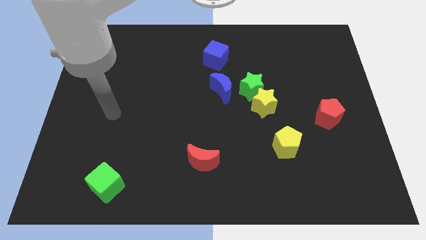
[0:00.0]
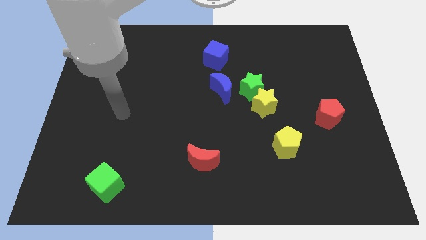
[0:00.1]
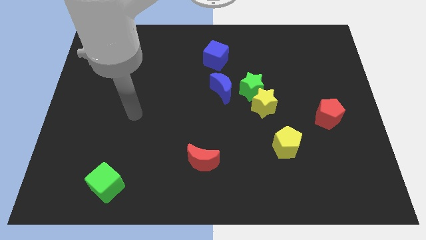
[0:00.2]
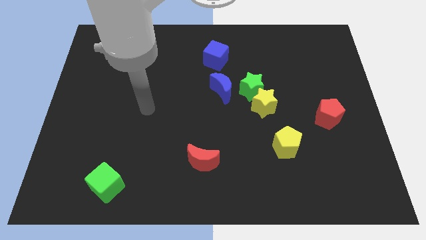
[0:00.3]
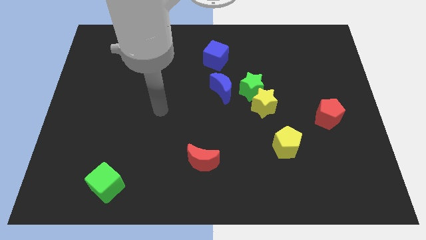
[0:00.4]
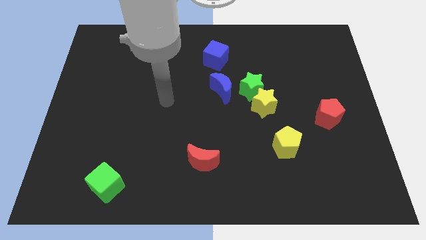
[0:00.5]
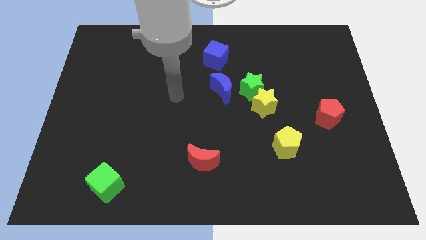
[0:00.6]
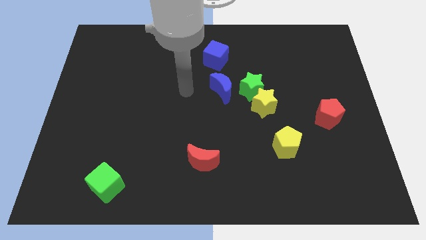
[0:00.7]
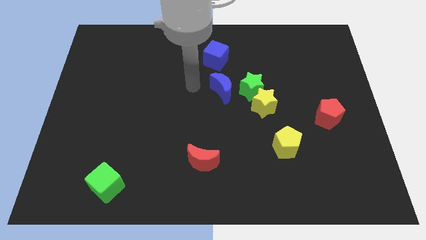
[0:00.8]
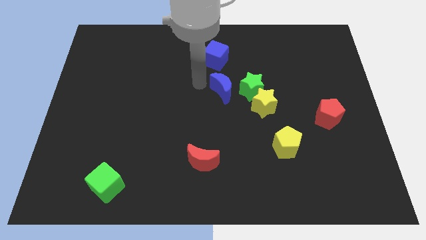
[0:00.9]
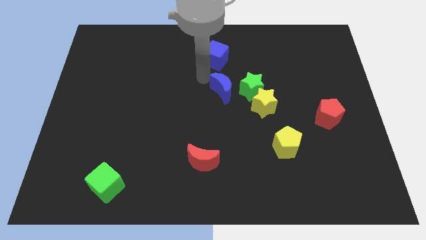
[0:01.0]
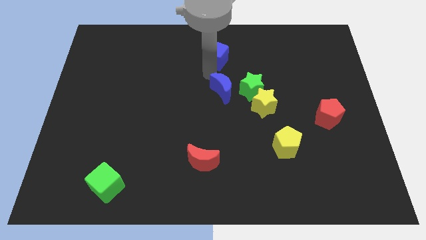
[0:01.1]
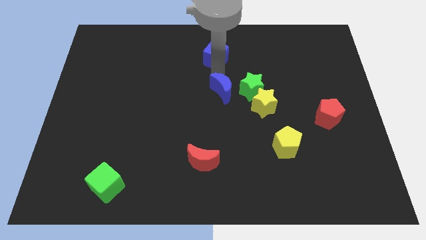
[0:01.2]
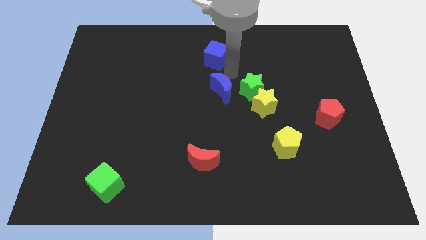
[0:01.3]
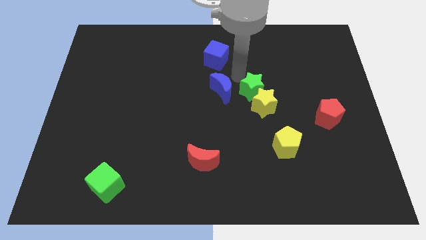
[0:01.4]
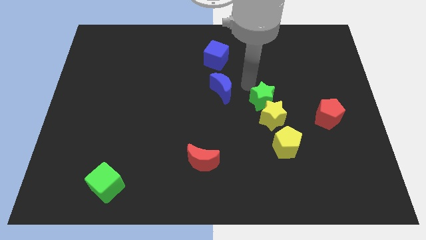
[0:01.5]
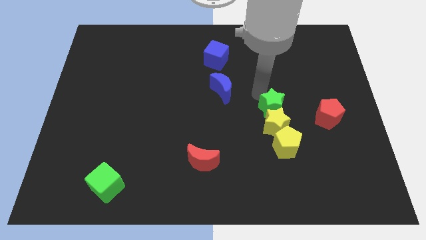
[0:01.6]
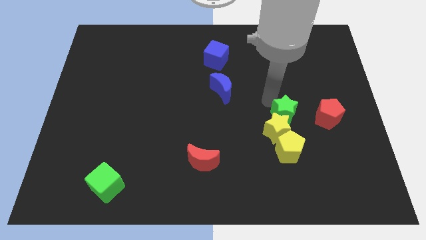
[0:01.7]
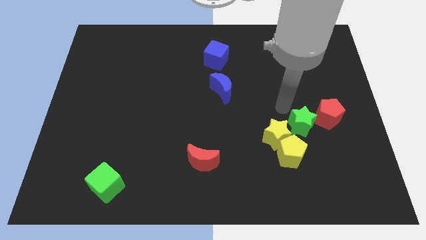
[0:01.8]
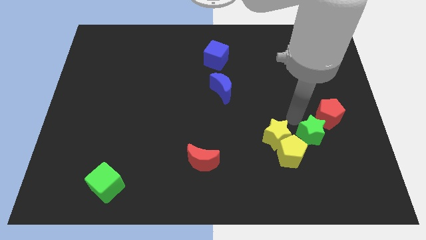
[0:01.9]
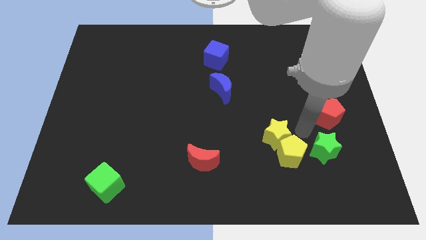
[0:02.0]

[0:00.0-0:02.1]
pull the yellow star apart from the green star

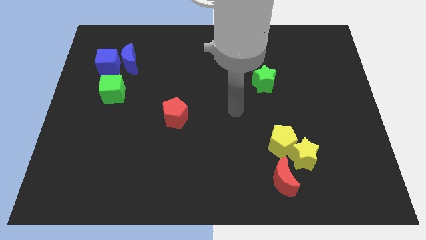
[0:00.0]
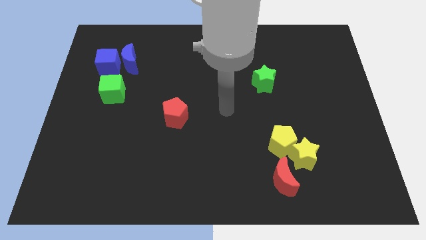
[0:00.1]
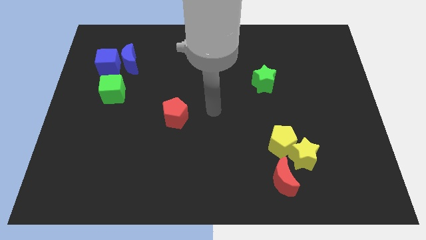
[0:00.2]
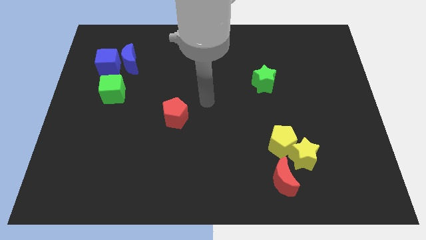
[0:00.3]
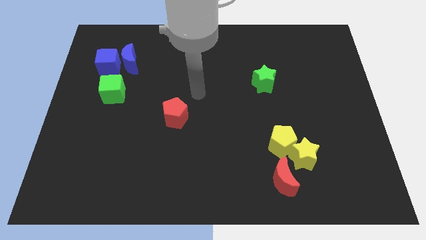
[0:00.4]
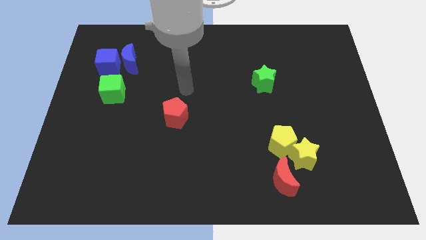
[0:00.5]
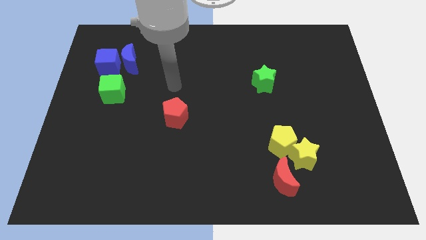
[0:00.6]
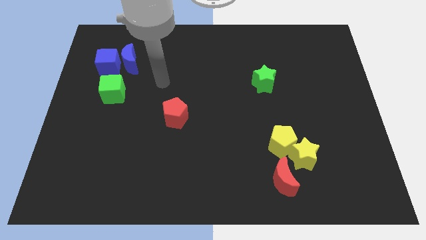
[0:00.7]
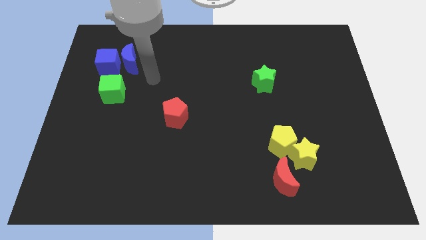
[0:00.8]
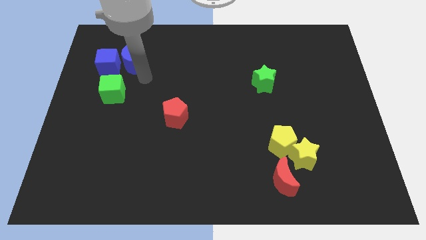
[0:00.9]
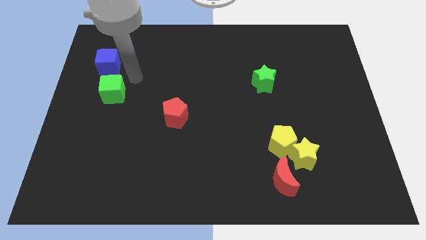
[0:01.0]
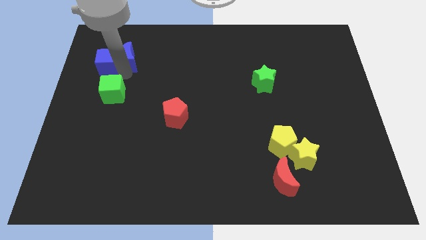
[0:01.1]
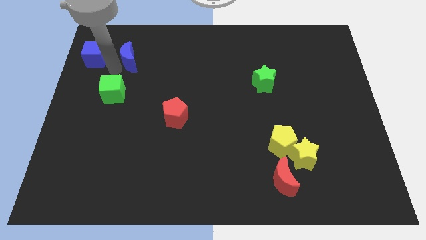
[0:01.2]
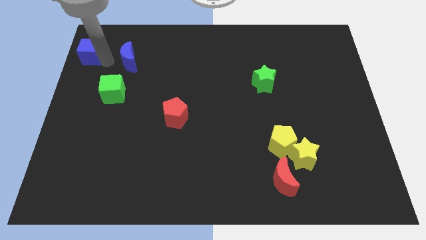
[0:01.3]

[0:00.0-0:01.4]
pull the blue moon apart from the blue cube

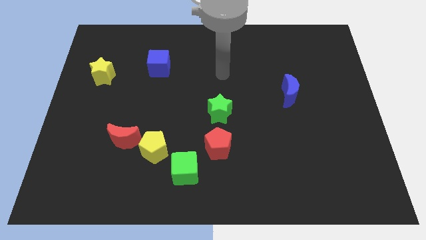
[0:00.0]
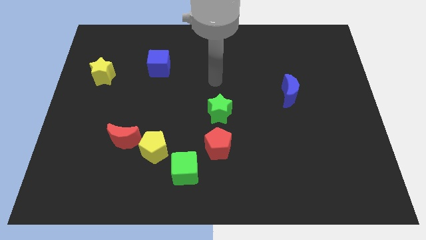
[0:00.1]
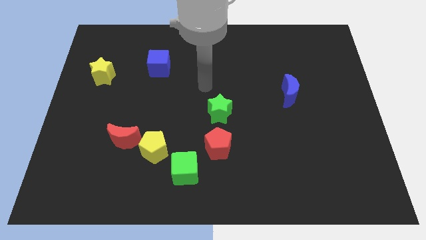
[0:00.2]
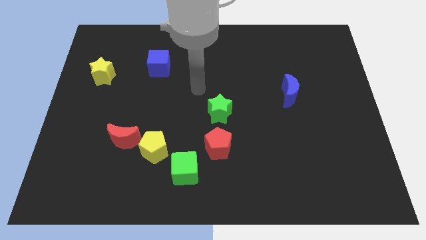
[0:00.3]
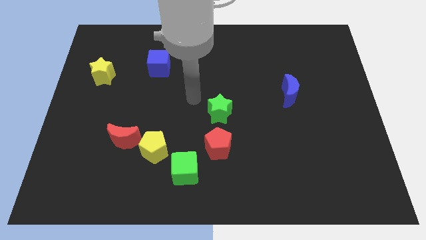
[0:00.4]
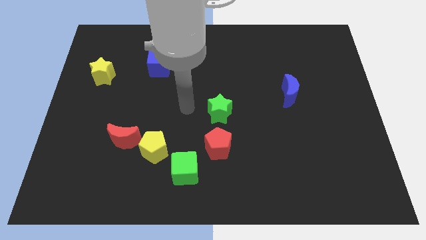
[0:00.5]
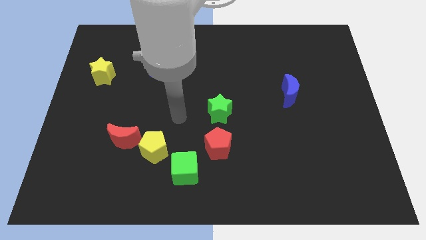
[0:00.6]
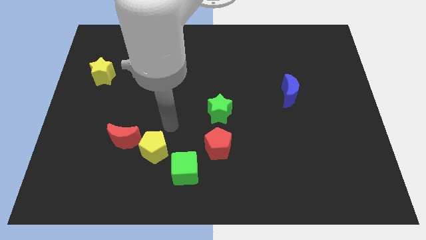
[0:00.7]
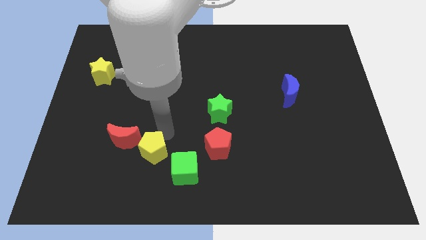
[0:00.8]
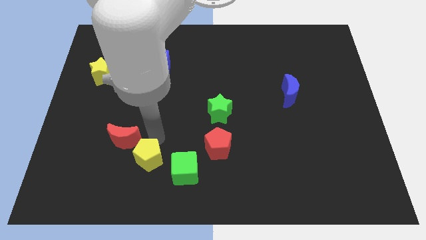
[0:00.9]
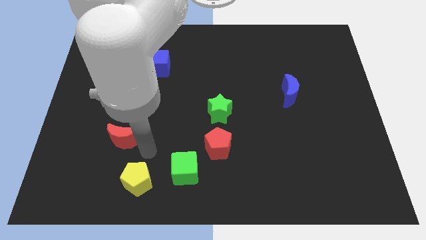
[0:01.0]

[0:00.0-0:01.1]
pull the red moon apart from the yellow pentagon

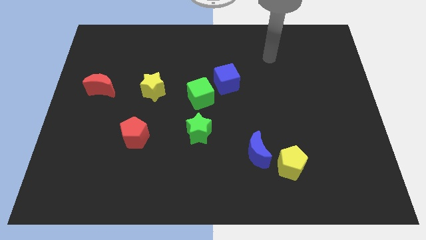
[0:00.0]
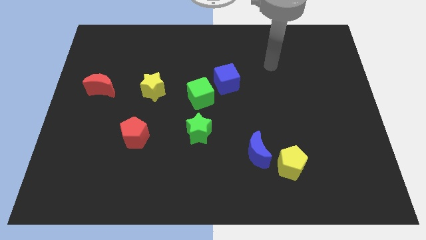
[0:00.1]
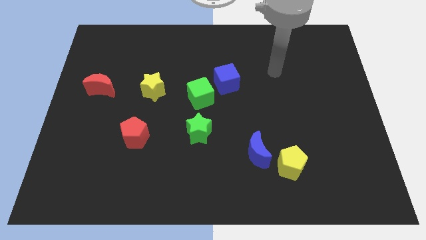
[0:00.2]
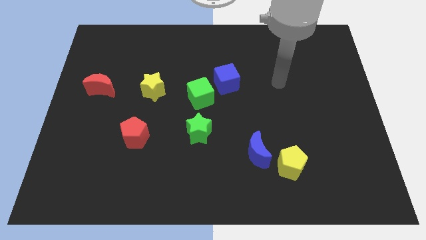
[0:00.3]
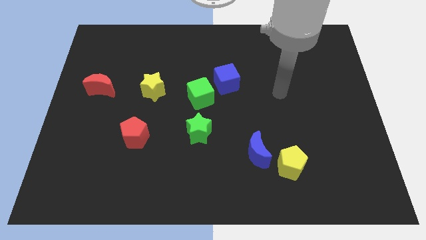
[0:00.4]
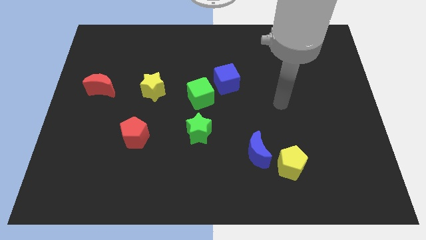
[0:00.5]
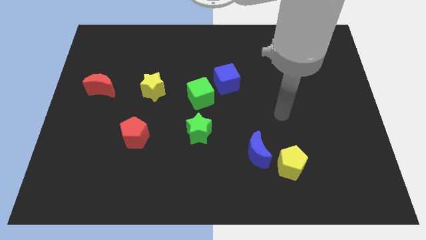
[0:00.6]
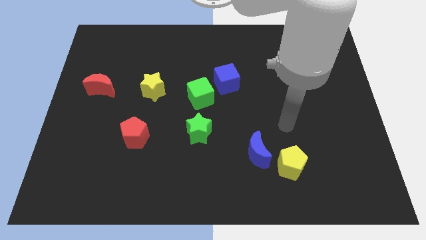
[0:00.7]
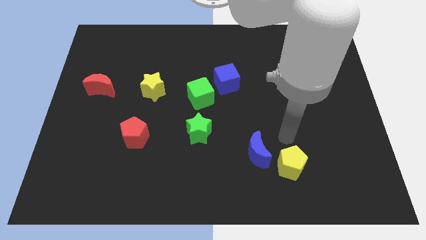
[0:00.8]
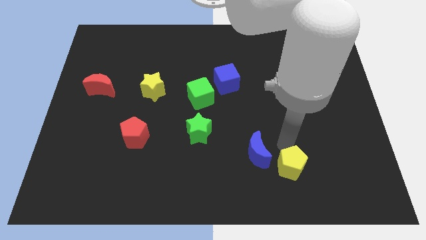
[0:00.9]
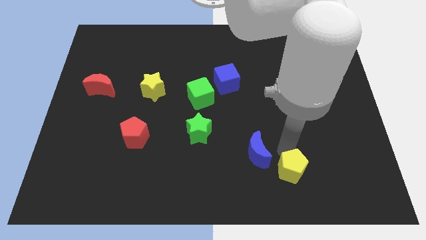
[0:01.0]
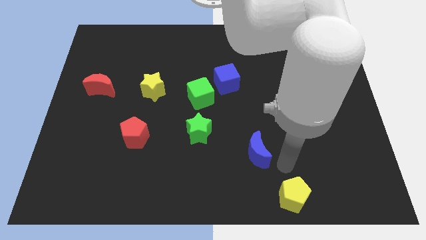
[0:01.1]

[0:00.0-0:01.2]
move the blue moon away from the yellow pentagon

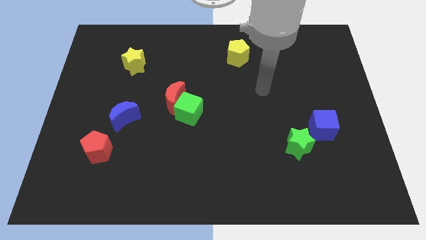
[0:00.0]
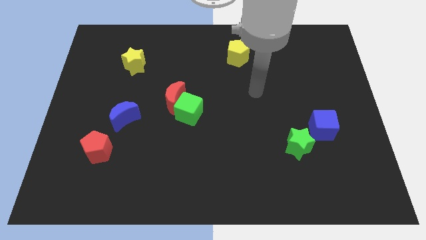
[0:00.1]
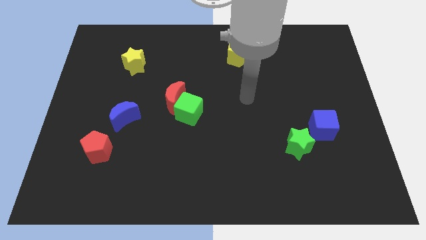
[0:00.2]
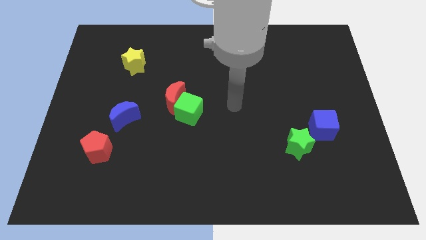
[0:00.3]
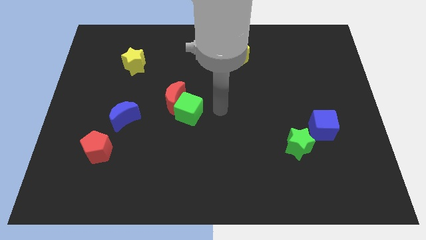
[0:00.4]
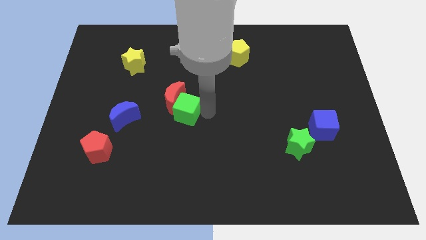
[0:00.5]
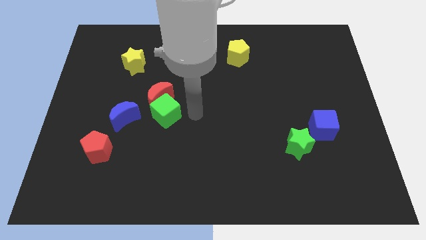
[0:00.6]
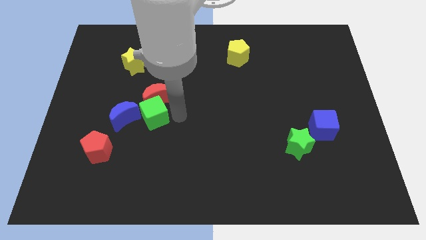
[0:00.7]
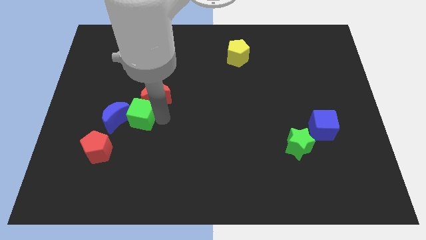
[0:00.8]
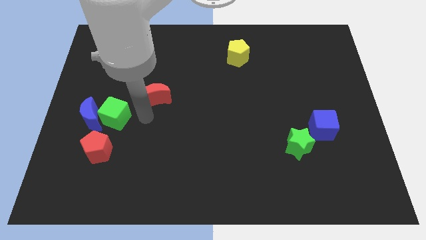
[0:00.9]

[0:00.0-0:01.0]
move the red moon away from the green cube

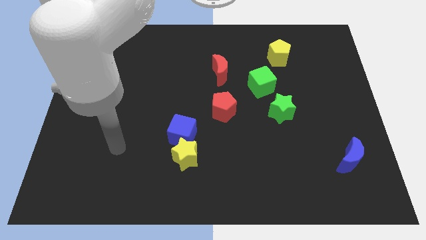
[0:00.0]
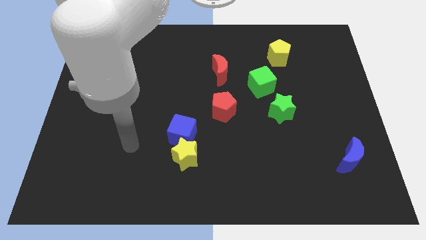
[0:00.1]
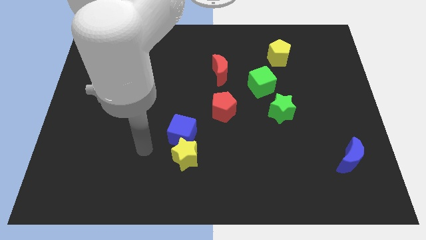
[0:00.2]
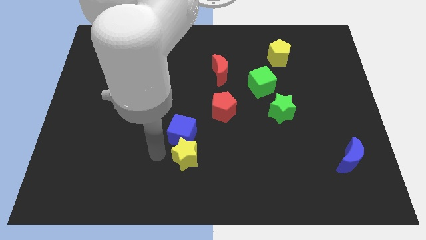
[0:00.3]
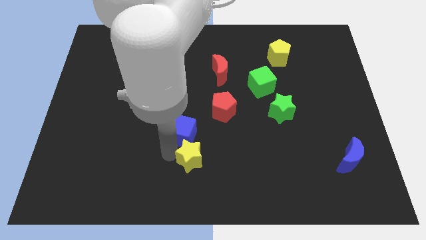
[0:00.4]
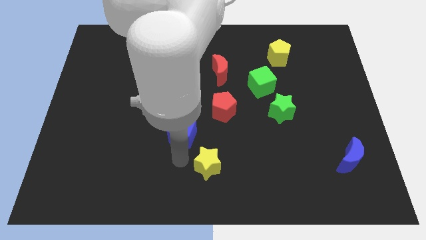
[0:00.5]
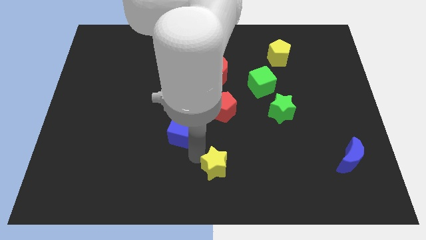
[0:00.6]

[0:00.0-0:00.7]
pull the blue cube apart from the yellow star

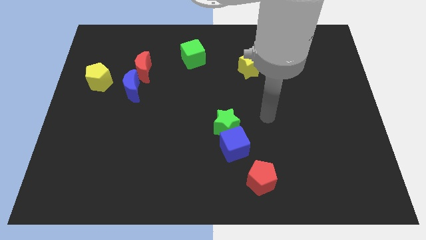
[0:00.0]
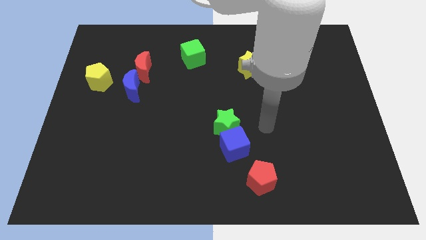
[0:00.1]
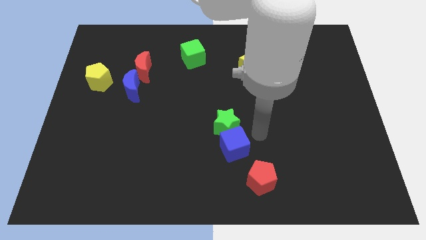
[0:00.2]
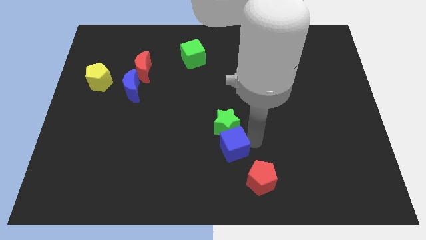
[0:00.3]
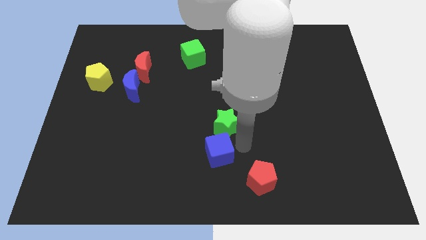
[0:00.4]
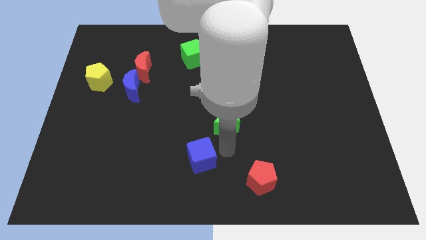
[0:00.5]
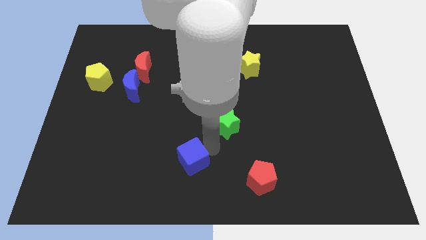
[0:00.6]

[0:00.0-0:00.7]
separate the green star from the blue cube

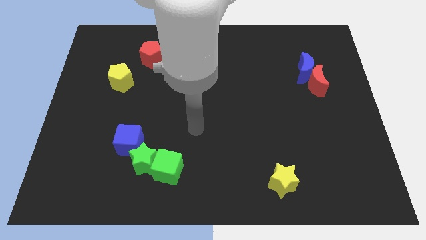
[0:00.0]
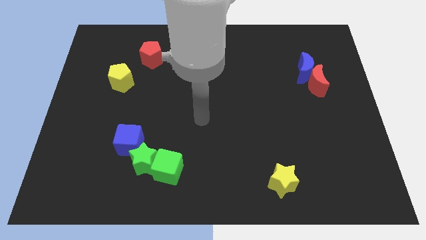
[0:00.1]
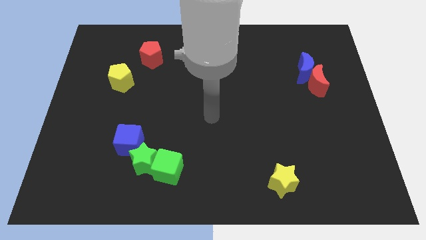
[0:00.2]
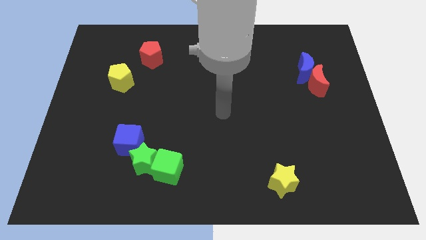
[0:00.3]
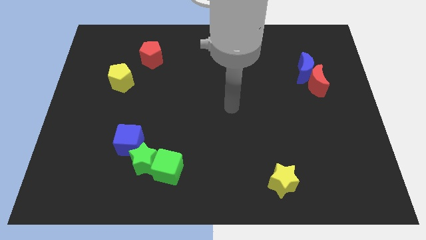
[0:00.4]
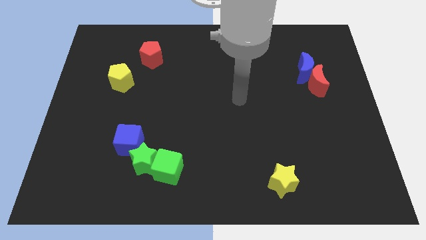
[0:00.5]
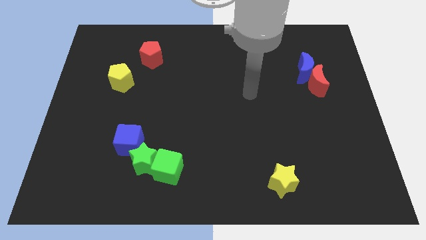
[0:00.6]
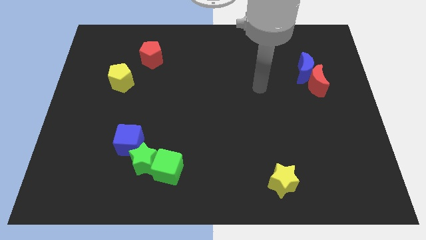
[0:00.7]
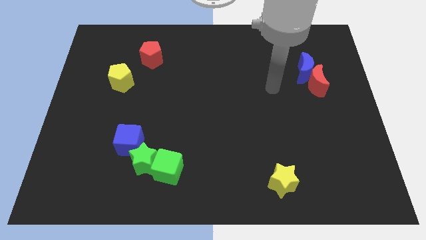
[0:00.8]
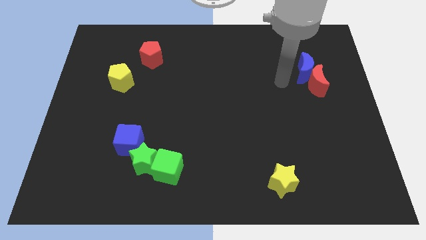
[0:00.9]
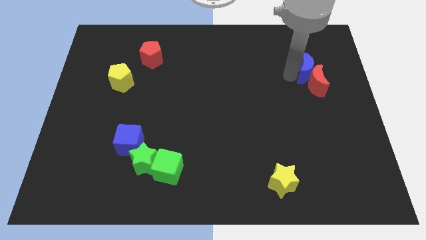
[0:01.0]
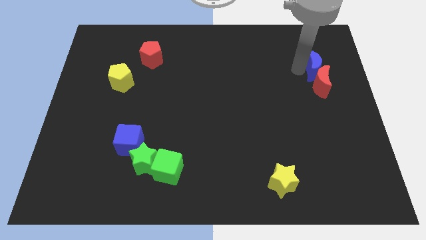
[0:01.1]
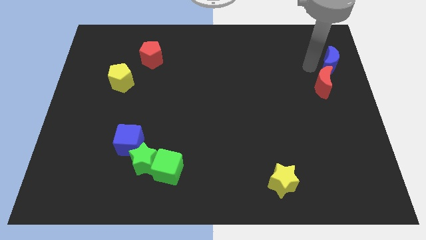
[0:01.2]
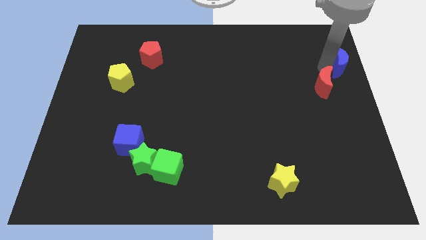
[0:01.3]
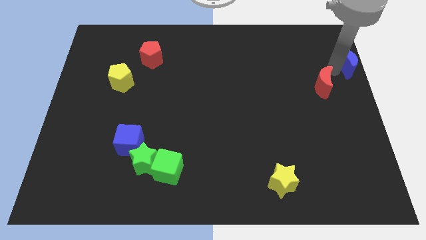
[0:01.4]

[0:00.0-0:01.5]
pull the red moon apart from the blue moon
